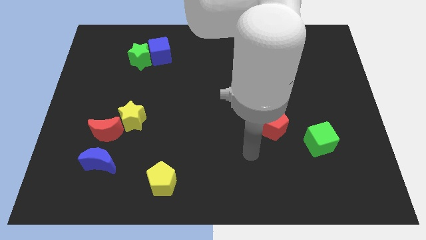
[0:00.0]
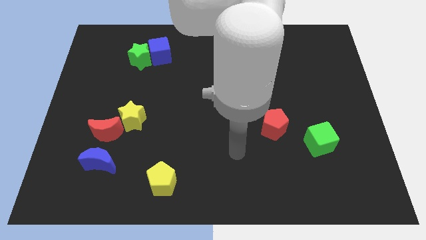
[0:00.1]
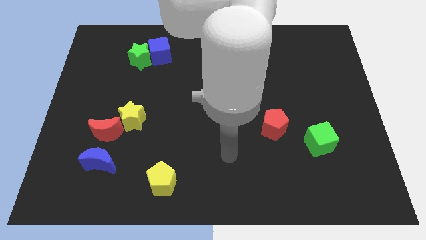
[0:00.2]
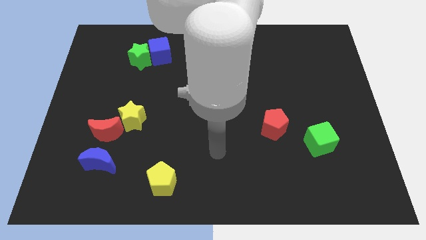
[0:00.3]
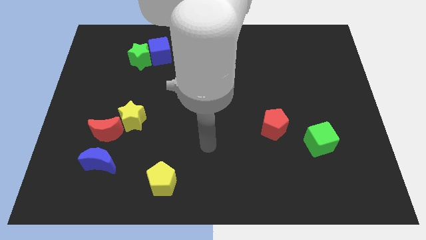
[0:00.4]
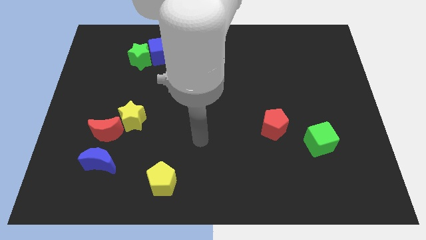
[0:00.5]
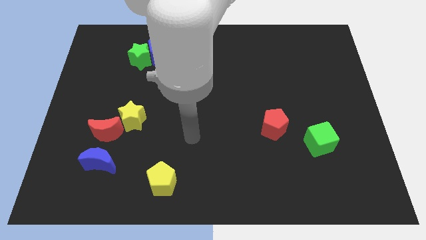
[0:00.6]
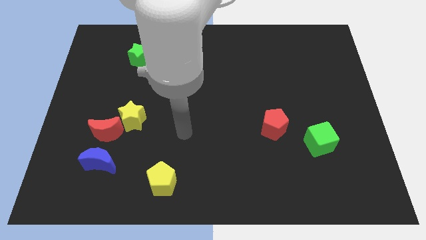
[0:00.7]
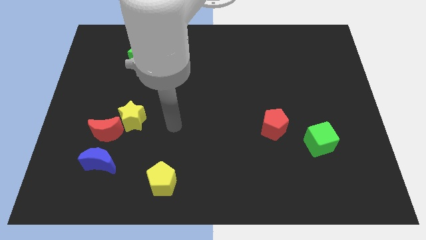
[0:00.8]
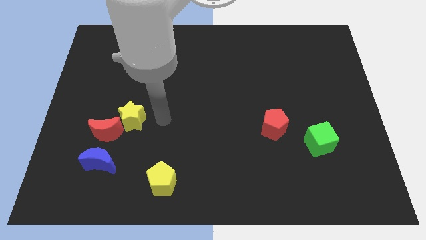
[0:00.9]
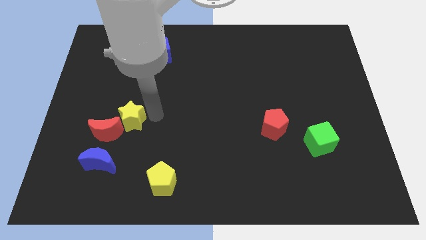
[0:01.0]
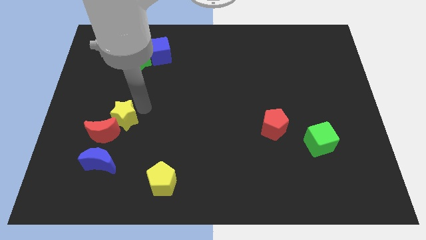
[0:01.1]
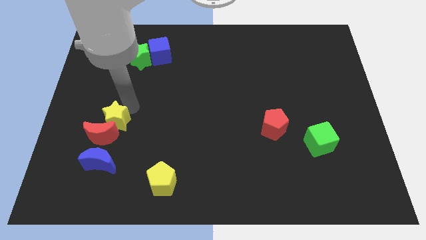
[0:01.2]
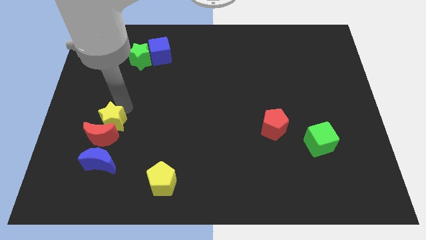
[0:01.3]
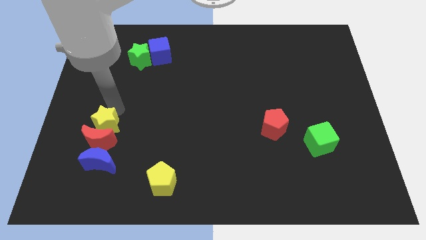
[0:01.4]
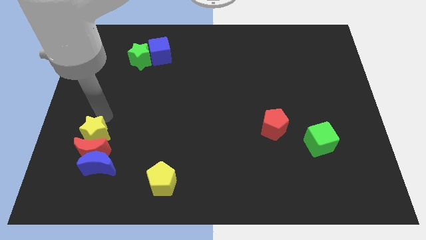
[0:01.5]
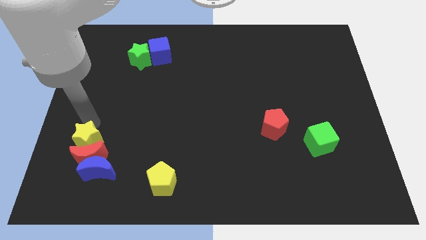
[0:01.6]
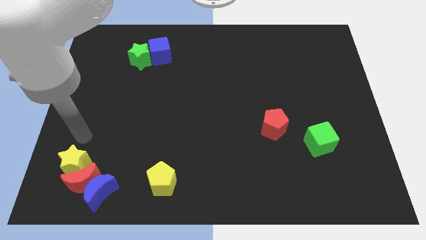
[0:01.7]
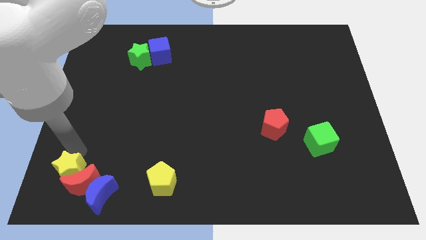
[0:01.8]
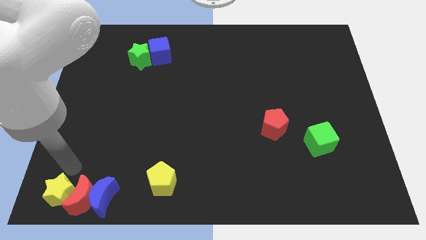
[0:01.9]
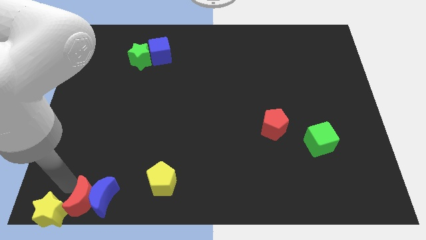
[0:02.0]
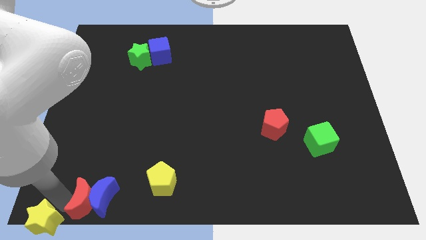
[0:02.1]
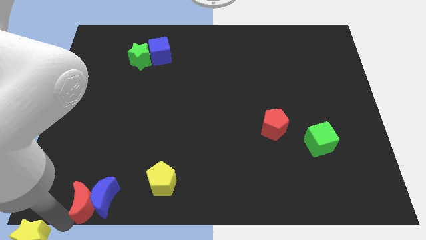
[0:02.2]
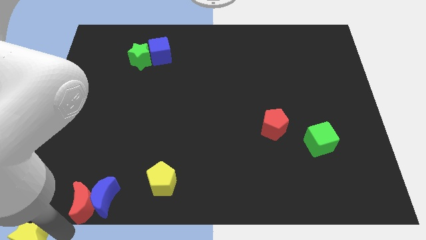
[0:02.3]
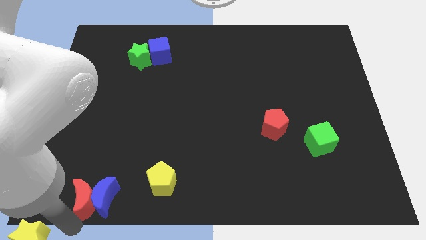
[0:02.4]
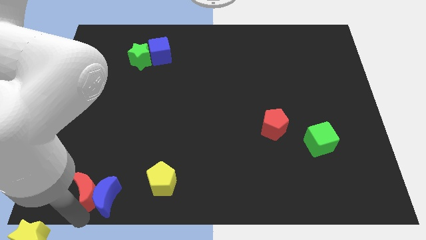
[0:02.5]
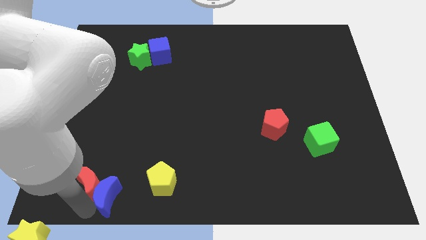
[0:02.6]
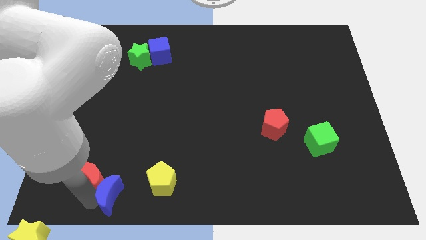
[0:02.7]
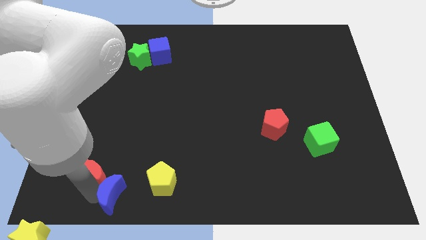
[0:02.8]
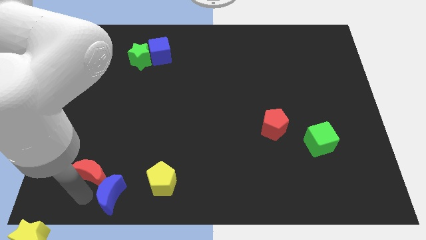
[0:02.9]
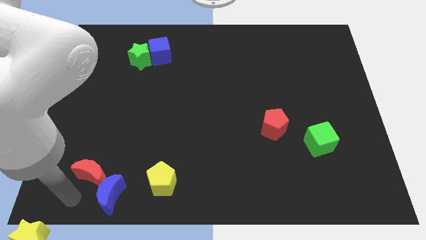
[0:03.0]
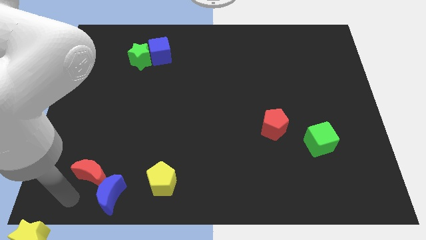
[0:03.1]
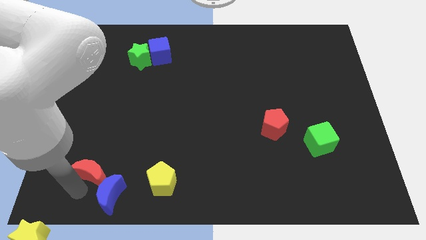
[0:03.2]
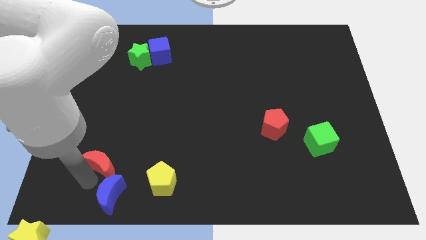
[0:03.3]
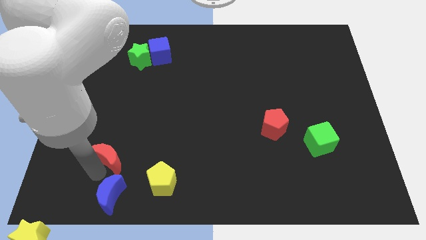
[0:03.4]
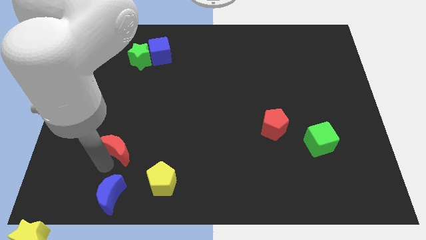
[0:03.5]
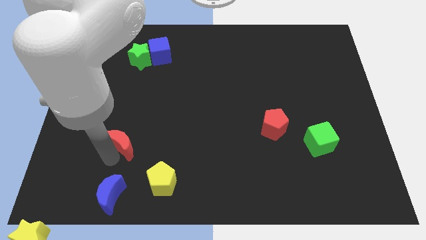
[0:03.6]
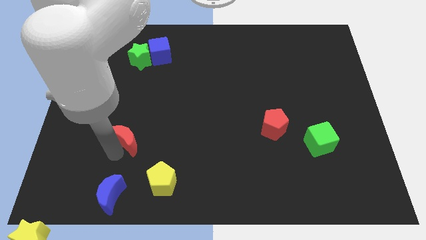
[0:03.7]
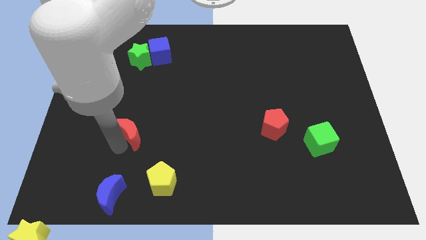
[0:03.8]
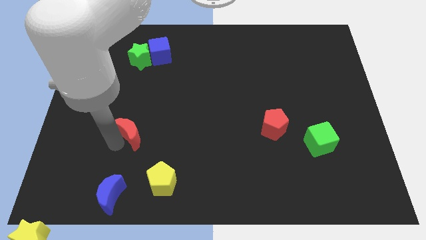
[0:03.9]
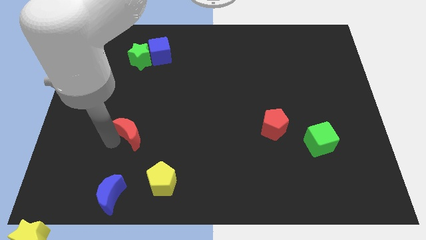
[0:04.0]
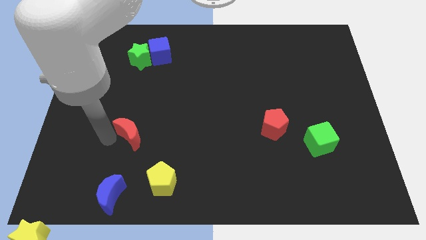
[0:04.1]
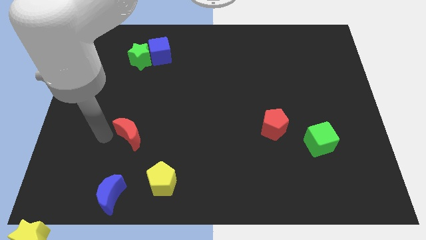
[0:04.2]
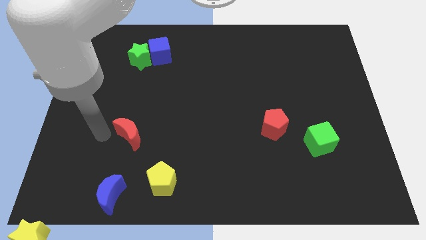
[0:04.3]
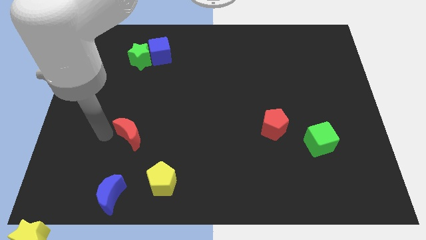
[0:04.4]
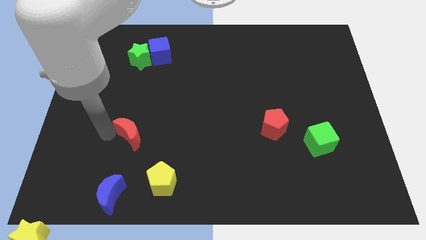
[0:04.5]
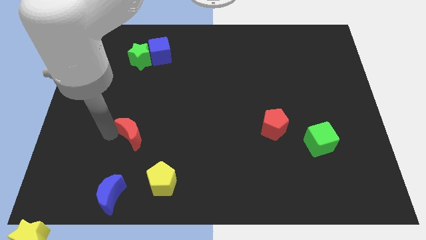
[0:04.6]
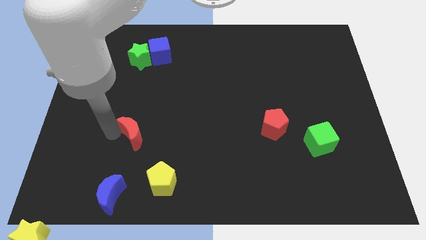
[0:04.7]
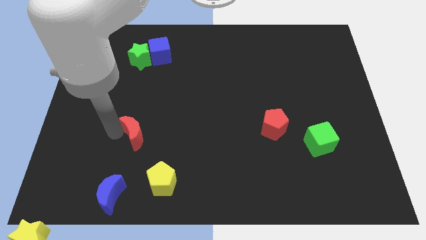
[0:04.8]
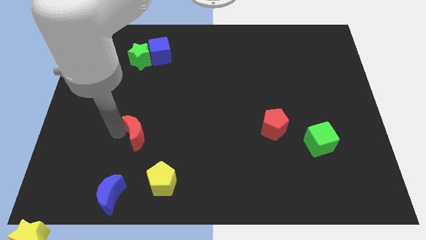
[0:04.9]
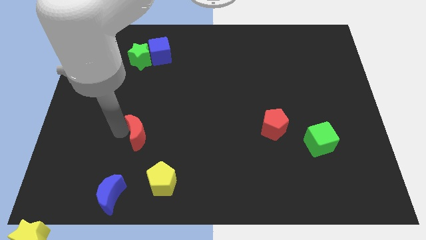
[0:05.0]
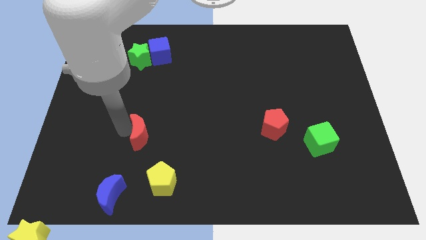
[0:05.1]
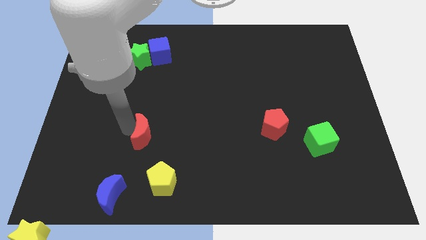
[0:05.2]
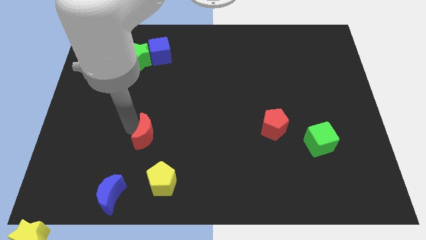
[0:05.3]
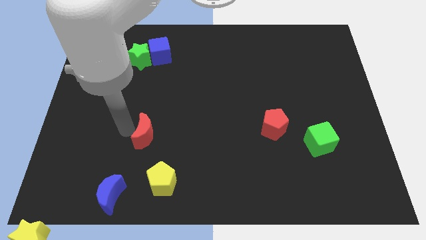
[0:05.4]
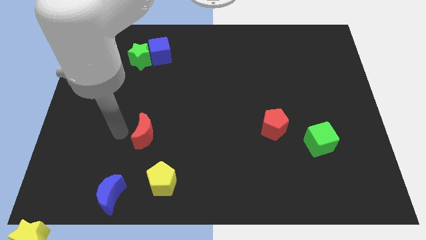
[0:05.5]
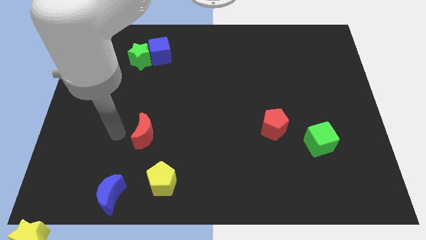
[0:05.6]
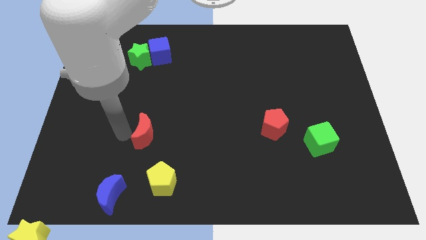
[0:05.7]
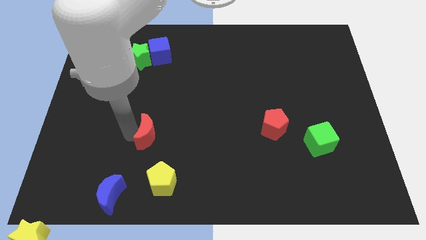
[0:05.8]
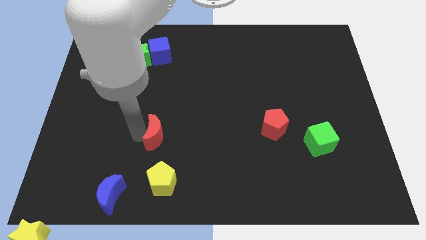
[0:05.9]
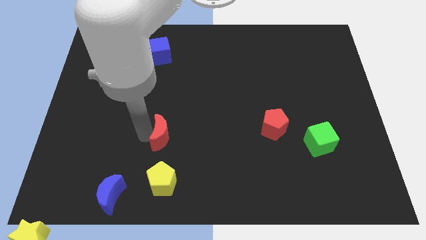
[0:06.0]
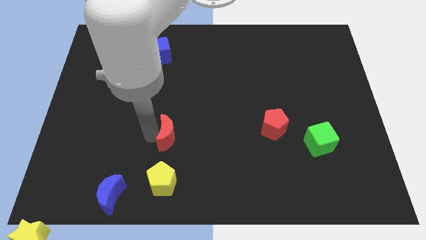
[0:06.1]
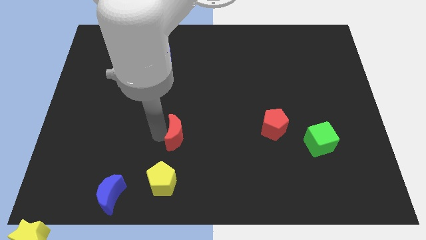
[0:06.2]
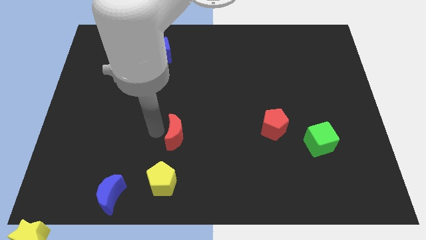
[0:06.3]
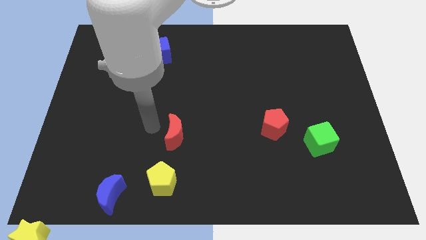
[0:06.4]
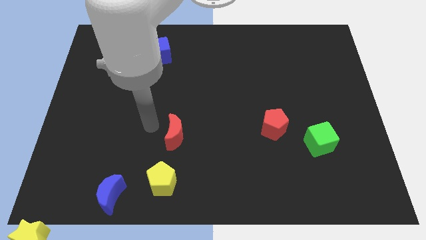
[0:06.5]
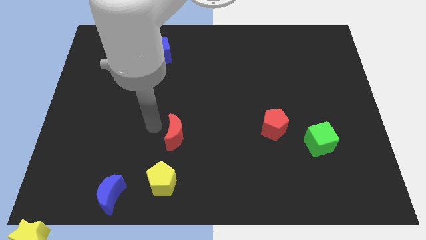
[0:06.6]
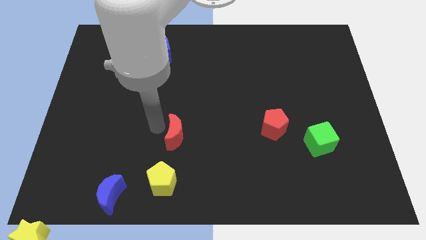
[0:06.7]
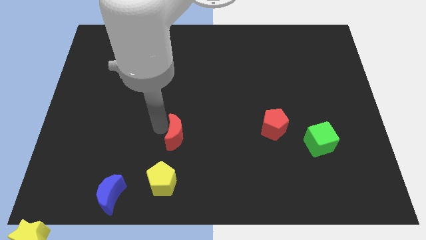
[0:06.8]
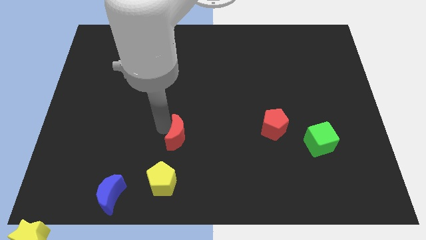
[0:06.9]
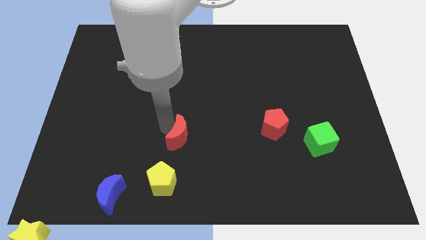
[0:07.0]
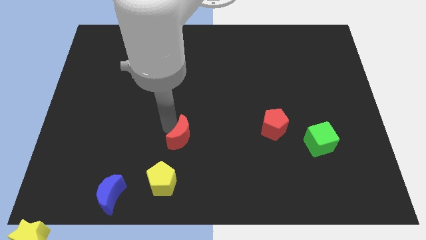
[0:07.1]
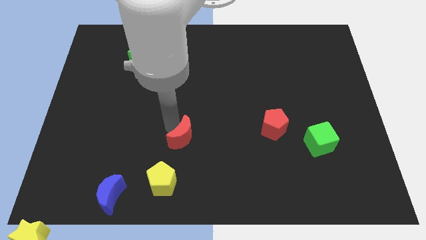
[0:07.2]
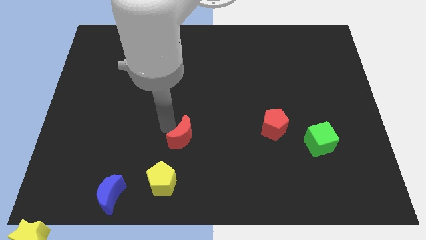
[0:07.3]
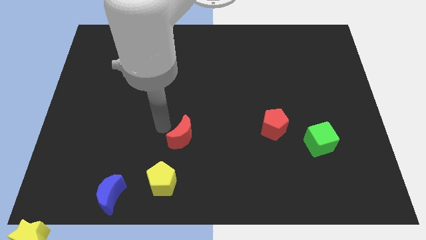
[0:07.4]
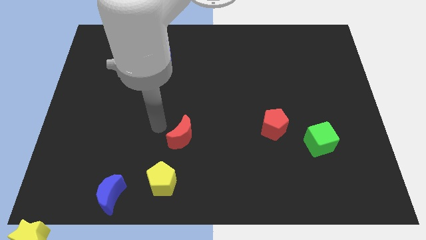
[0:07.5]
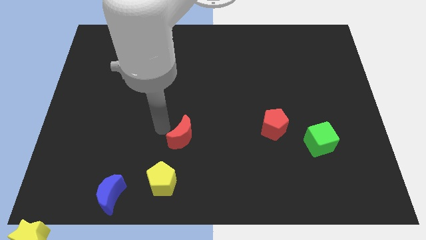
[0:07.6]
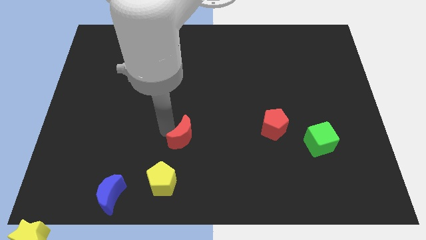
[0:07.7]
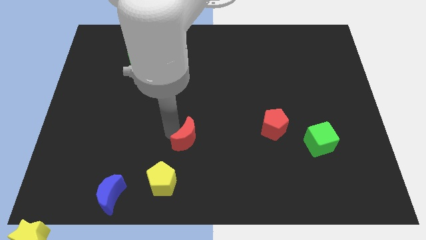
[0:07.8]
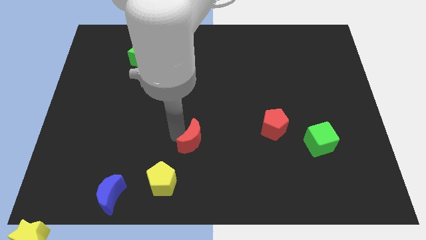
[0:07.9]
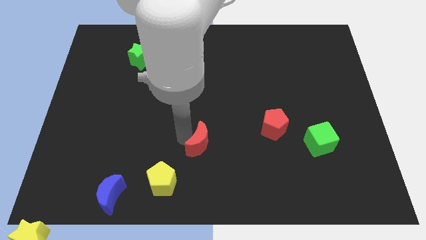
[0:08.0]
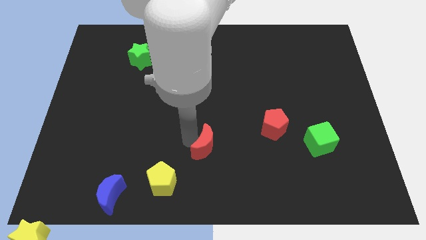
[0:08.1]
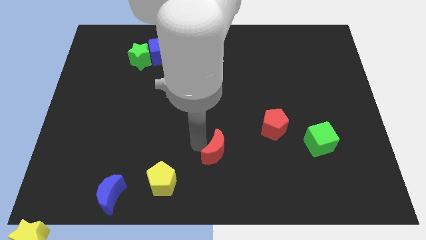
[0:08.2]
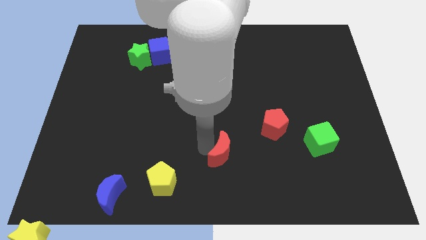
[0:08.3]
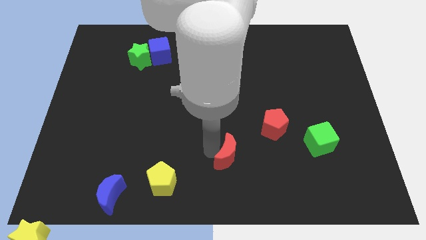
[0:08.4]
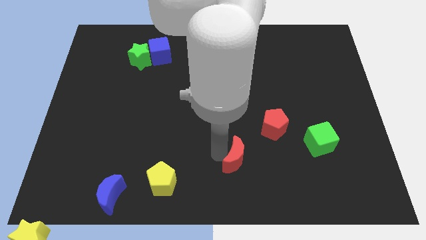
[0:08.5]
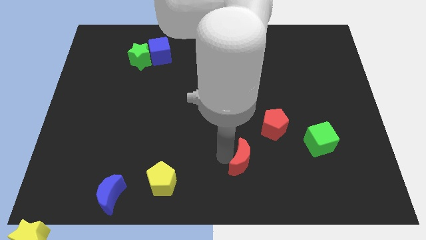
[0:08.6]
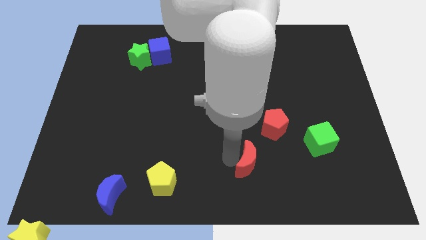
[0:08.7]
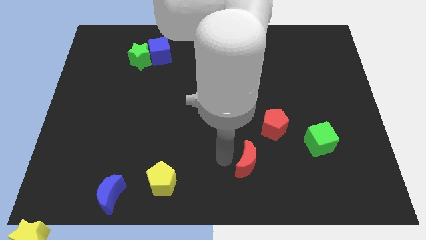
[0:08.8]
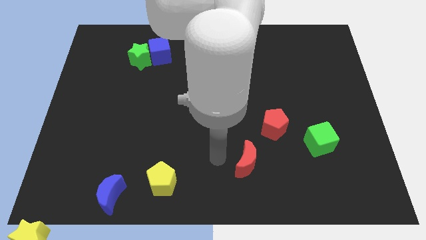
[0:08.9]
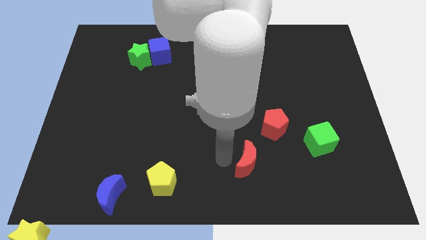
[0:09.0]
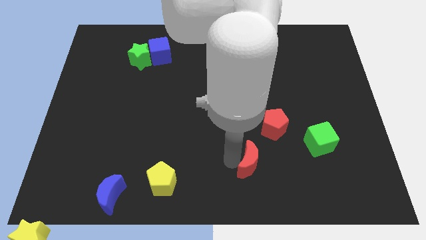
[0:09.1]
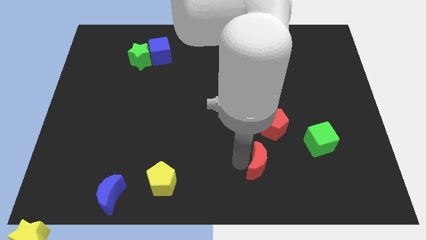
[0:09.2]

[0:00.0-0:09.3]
slide the red moon below the red pentagon
